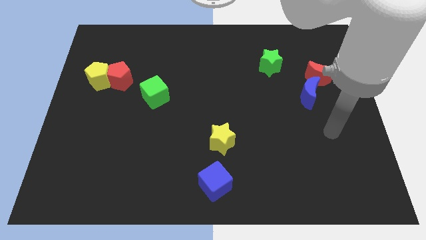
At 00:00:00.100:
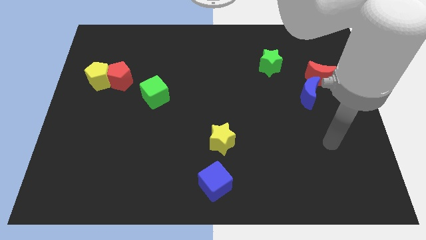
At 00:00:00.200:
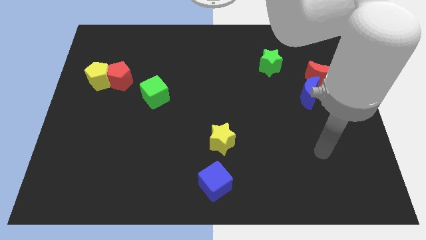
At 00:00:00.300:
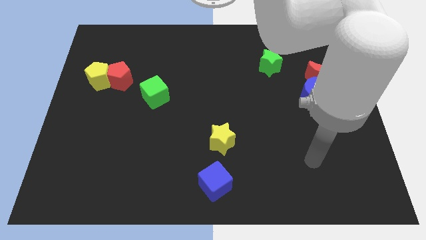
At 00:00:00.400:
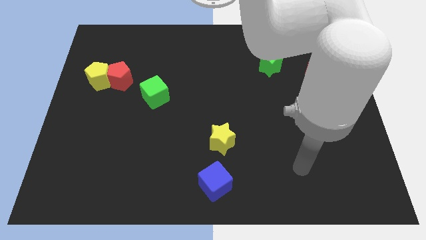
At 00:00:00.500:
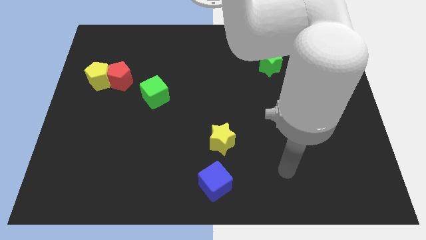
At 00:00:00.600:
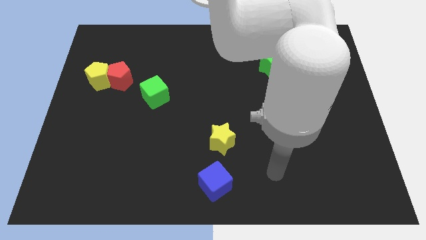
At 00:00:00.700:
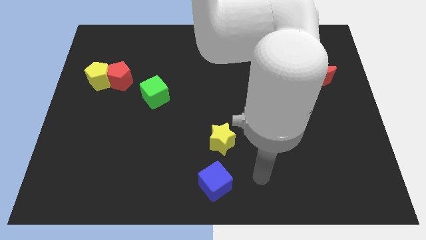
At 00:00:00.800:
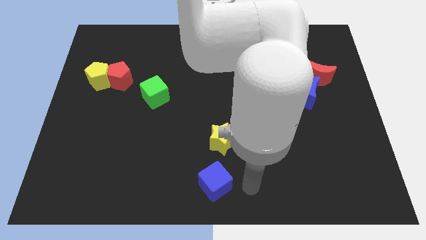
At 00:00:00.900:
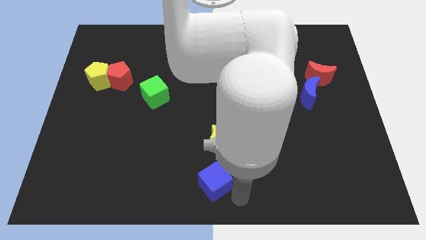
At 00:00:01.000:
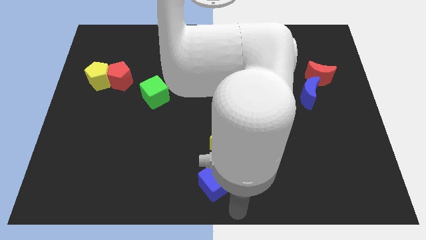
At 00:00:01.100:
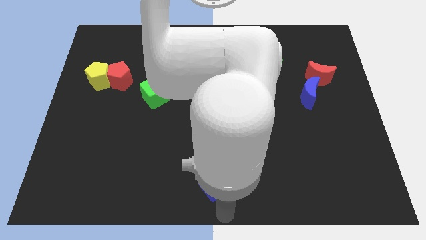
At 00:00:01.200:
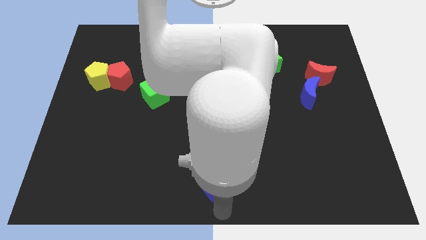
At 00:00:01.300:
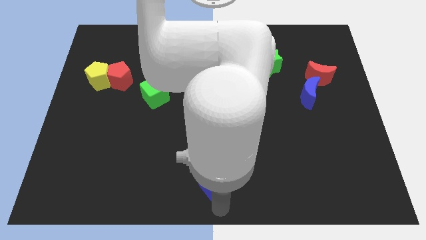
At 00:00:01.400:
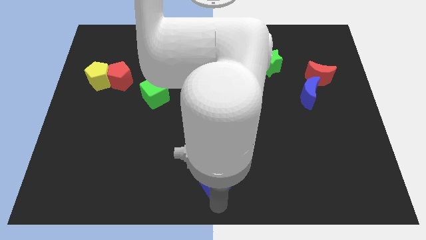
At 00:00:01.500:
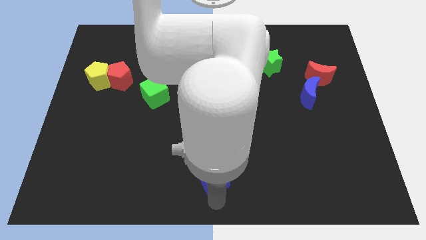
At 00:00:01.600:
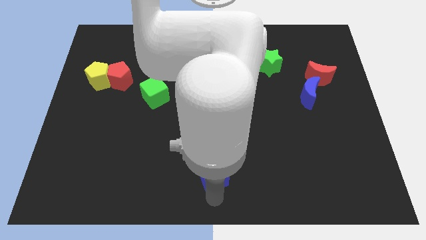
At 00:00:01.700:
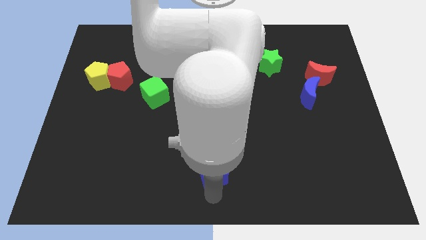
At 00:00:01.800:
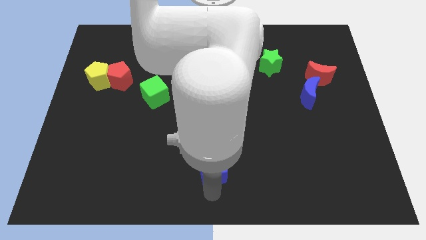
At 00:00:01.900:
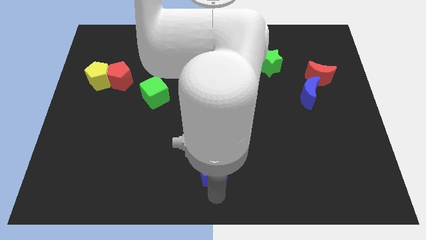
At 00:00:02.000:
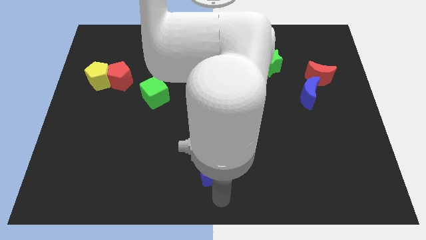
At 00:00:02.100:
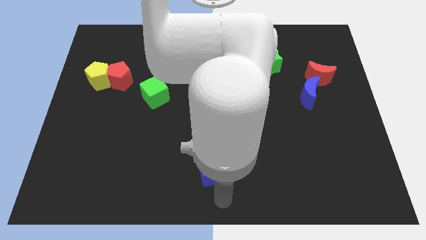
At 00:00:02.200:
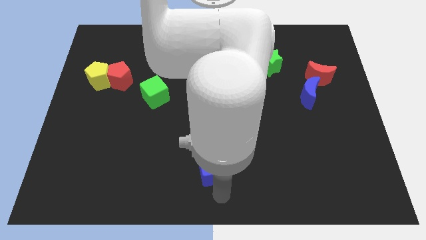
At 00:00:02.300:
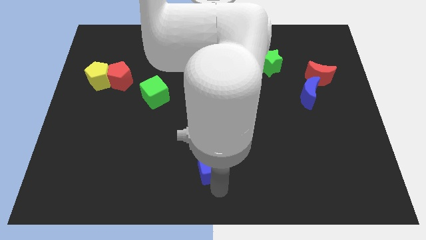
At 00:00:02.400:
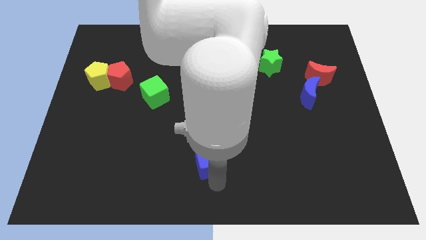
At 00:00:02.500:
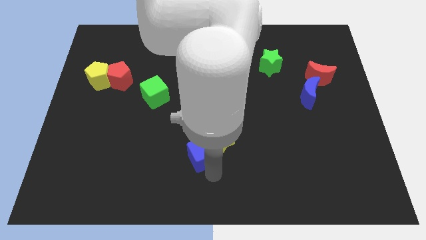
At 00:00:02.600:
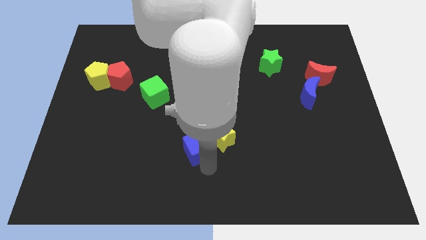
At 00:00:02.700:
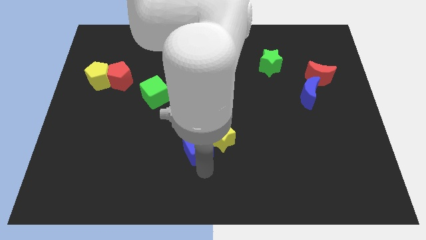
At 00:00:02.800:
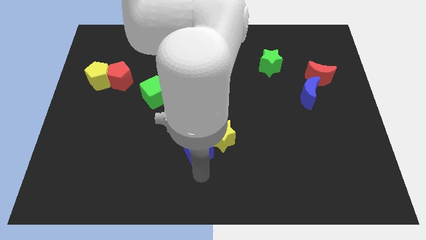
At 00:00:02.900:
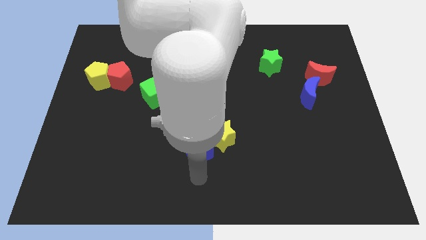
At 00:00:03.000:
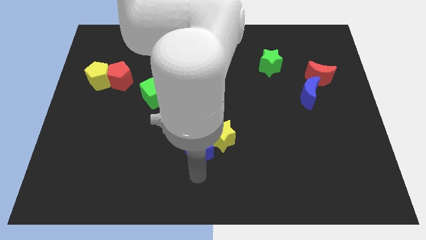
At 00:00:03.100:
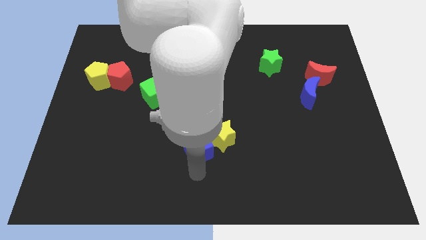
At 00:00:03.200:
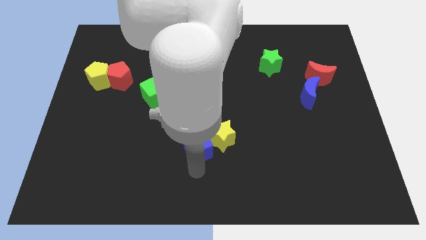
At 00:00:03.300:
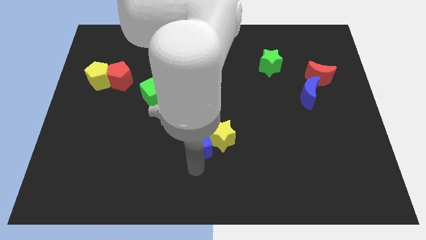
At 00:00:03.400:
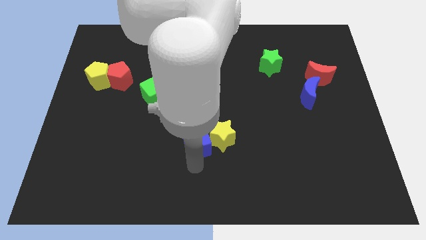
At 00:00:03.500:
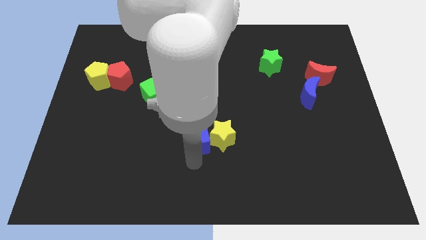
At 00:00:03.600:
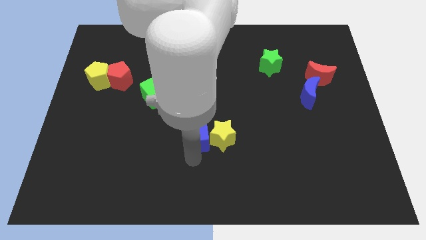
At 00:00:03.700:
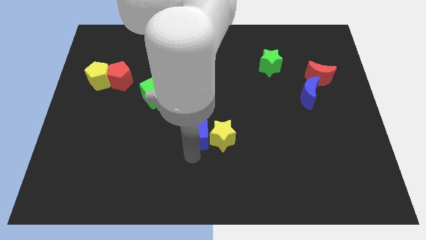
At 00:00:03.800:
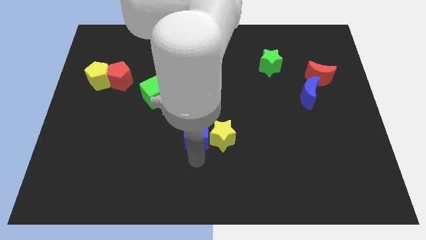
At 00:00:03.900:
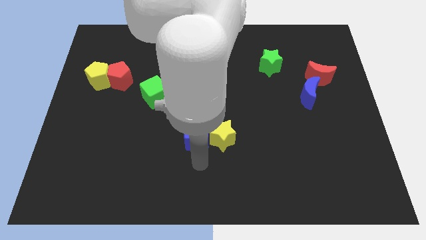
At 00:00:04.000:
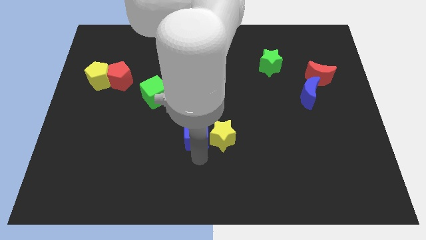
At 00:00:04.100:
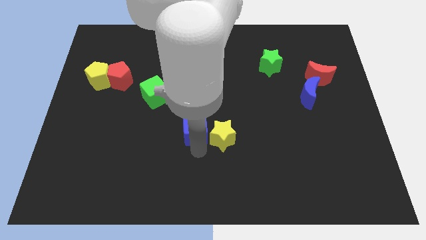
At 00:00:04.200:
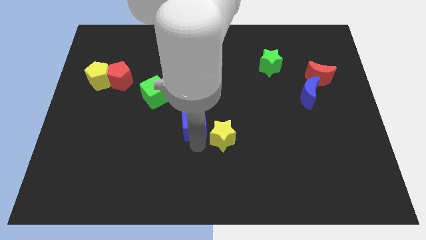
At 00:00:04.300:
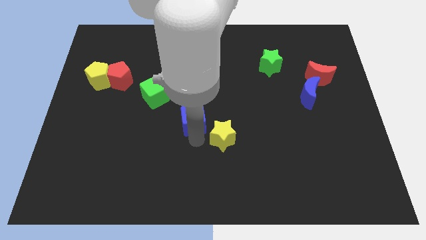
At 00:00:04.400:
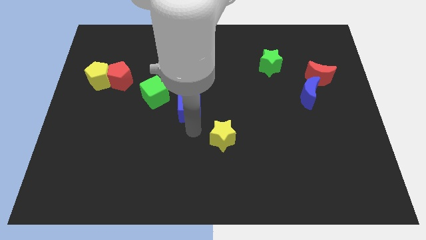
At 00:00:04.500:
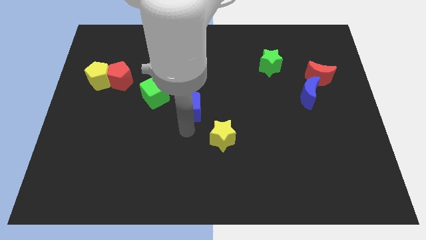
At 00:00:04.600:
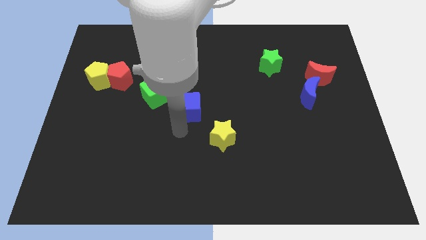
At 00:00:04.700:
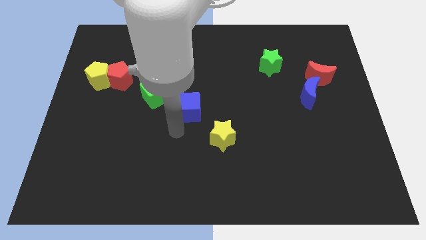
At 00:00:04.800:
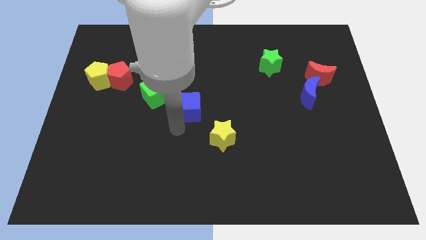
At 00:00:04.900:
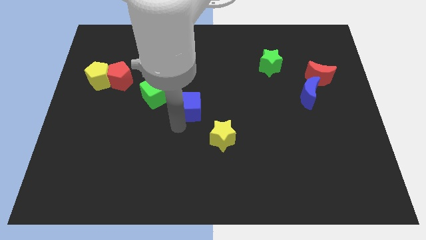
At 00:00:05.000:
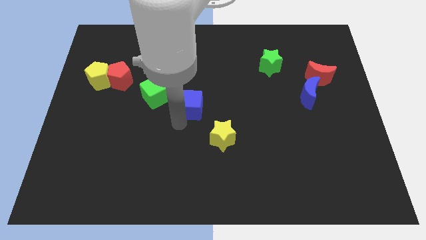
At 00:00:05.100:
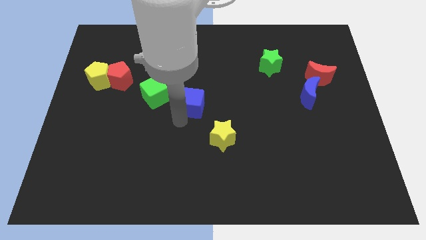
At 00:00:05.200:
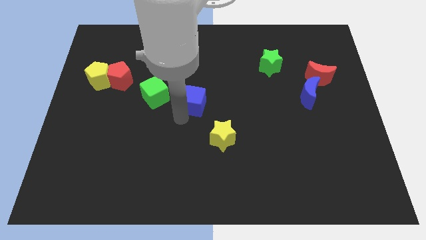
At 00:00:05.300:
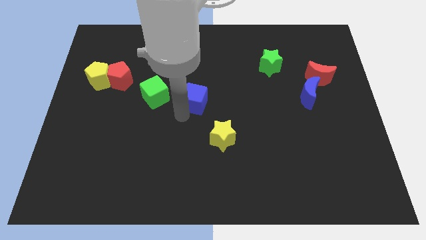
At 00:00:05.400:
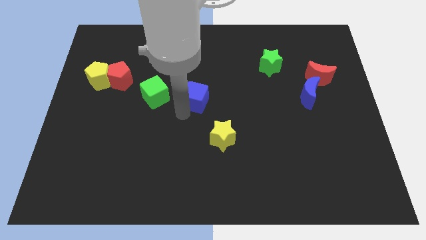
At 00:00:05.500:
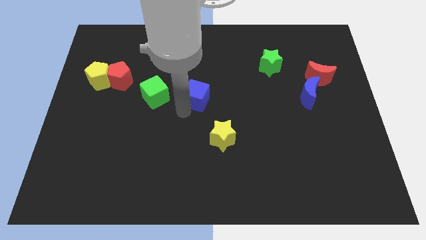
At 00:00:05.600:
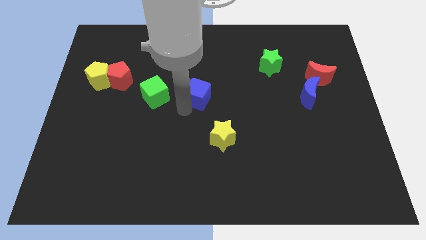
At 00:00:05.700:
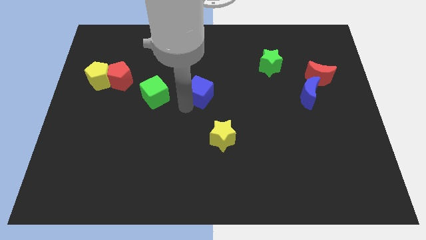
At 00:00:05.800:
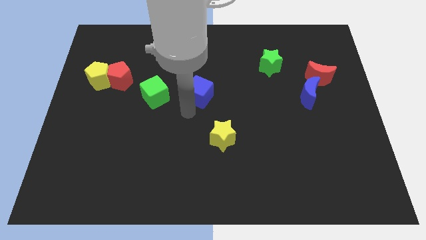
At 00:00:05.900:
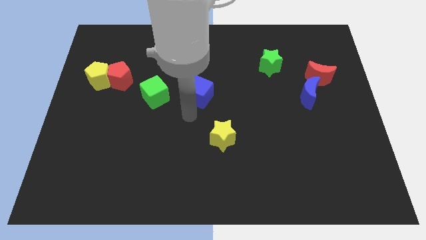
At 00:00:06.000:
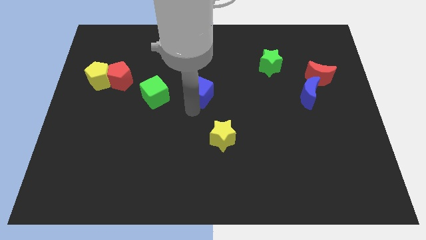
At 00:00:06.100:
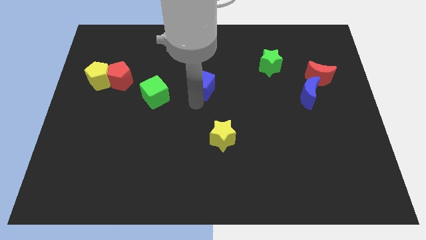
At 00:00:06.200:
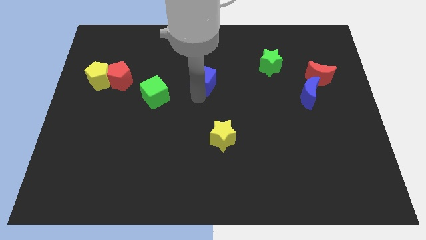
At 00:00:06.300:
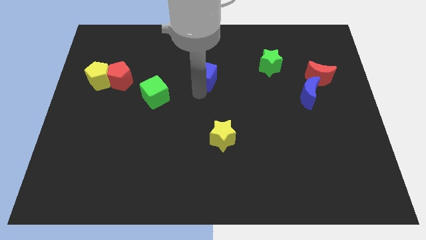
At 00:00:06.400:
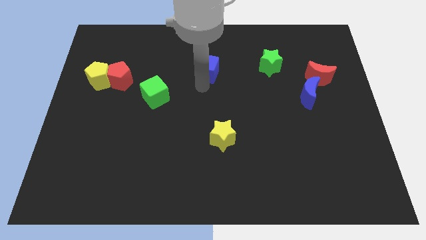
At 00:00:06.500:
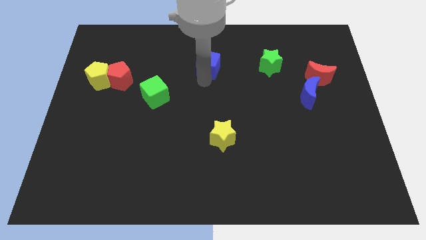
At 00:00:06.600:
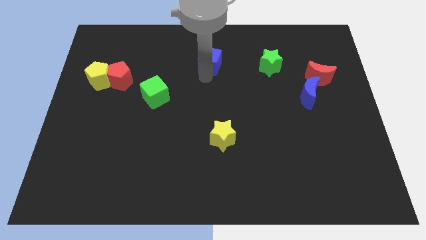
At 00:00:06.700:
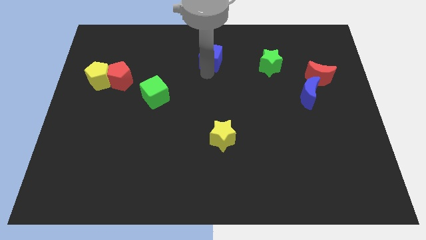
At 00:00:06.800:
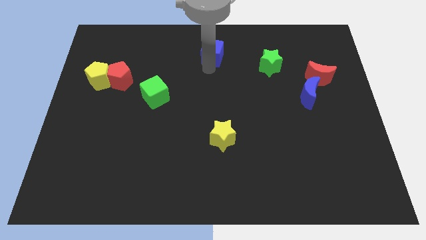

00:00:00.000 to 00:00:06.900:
push the blue cube to the top side
